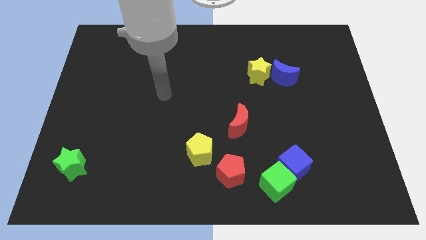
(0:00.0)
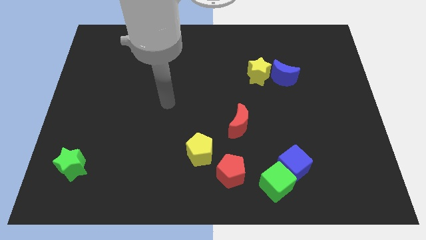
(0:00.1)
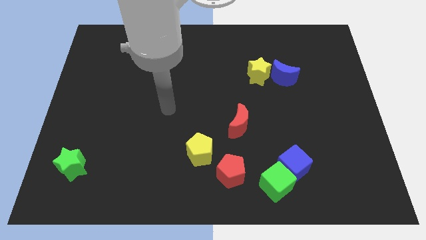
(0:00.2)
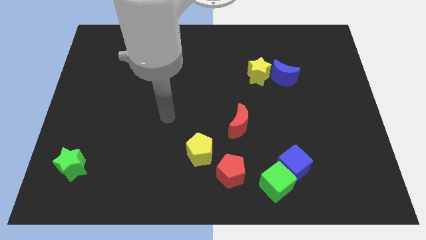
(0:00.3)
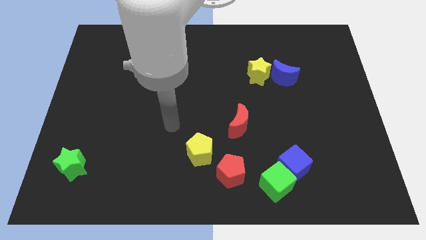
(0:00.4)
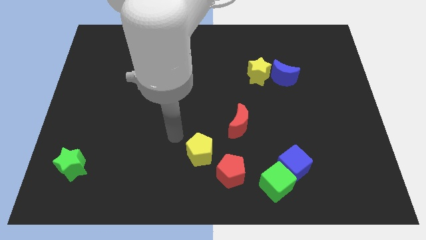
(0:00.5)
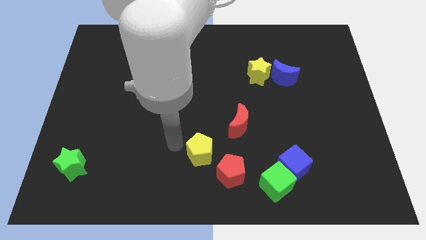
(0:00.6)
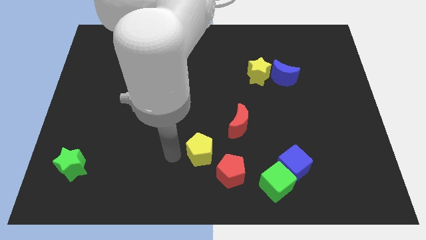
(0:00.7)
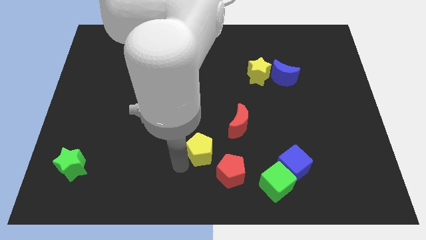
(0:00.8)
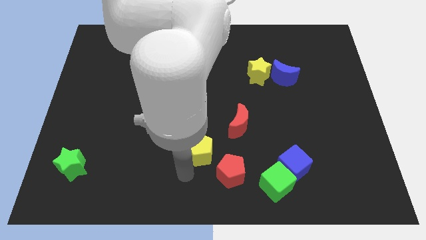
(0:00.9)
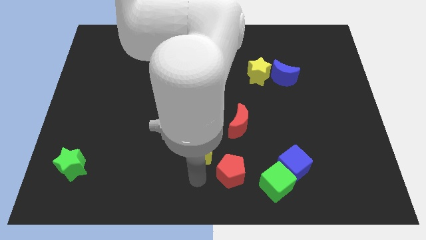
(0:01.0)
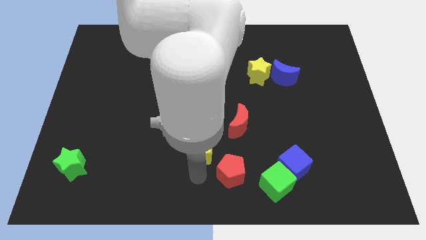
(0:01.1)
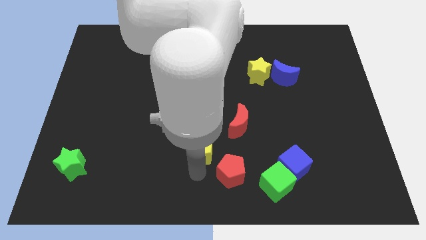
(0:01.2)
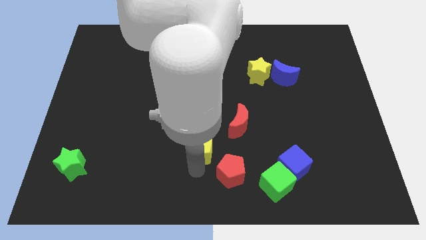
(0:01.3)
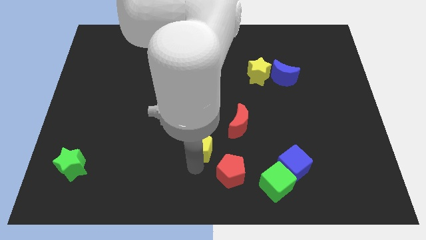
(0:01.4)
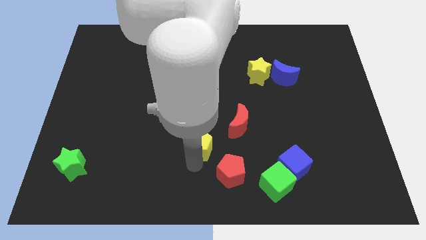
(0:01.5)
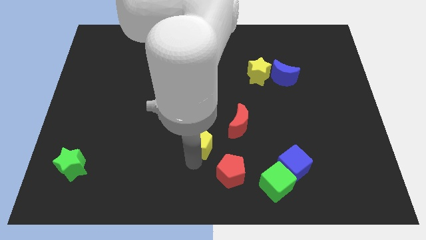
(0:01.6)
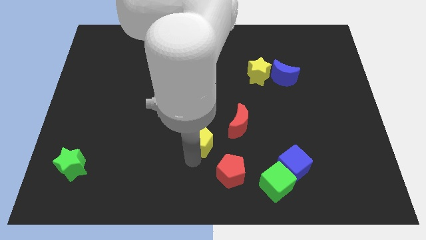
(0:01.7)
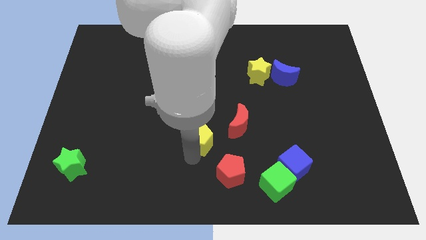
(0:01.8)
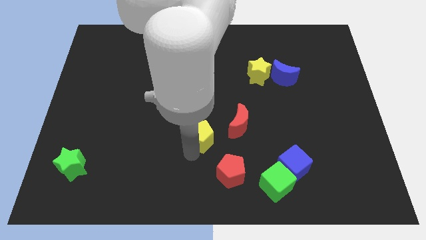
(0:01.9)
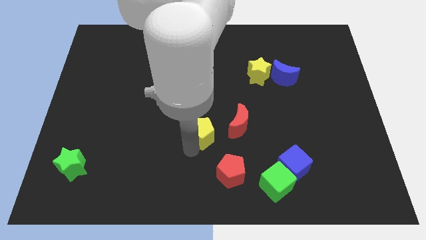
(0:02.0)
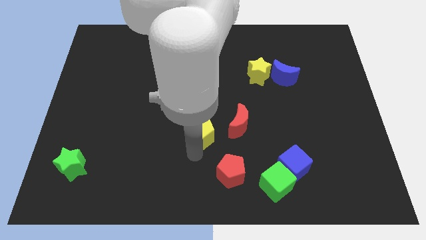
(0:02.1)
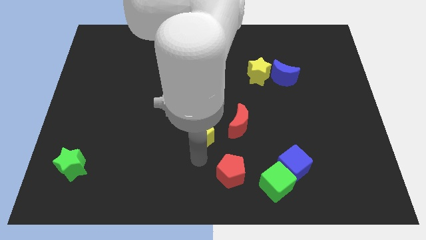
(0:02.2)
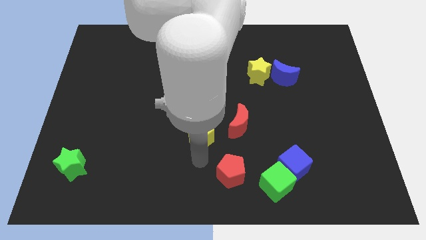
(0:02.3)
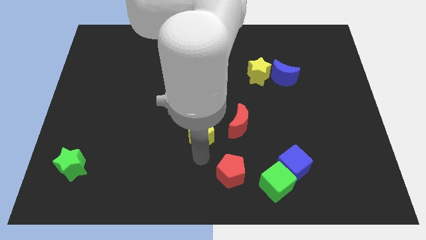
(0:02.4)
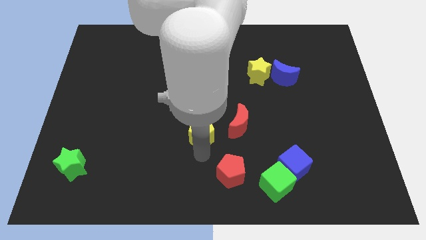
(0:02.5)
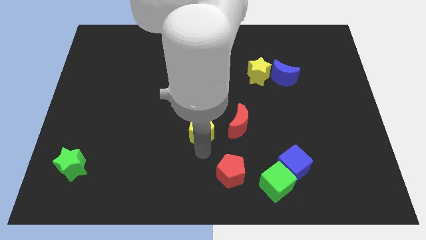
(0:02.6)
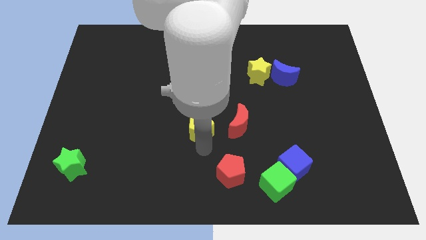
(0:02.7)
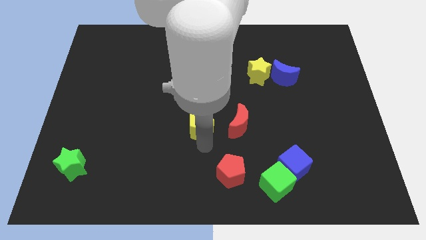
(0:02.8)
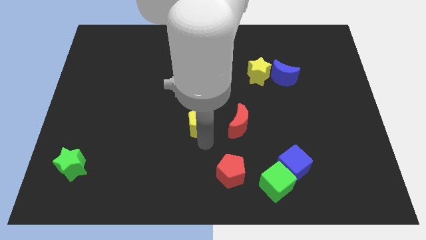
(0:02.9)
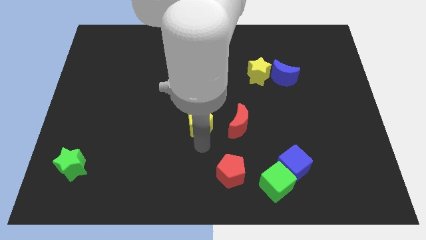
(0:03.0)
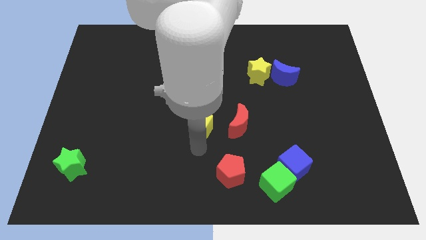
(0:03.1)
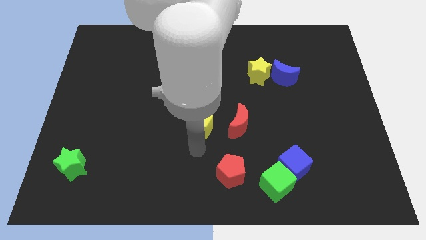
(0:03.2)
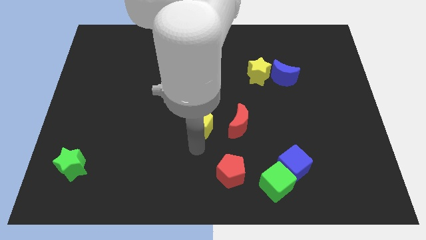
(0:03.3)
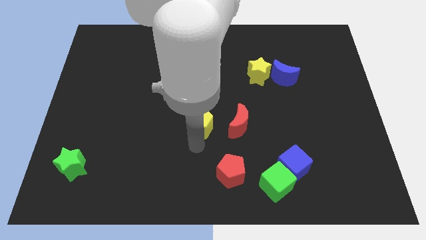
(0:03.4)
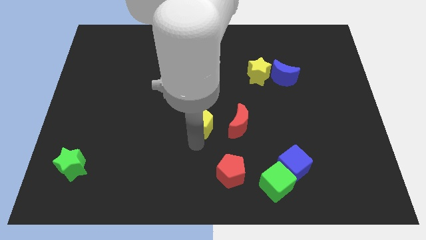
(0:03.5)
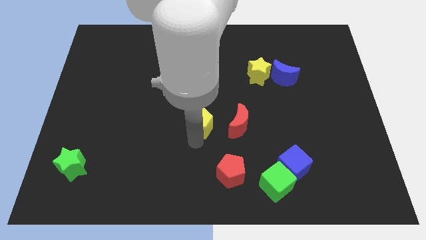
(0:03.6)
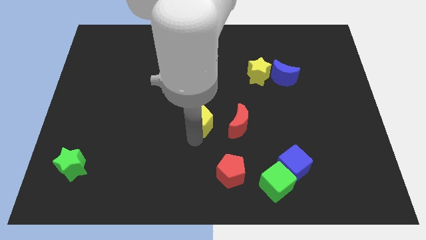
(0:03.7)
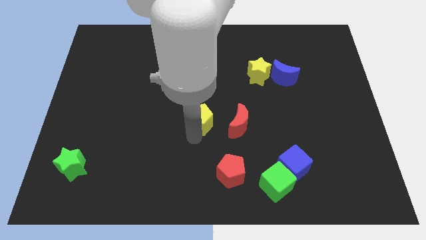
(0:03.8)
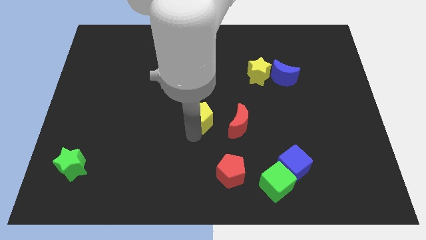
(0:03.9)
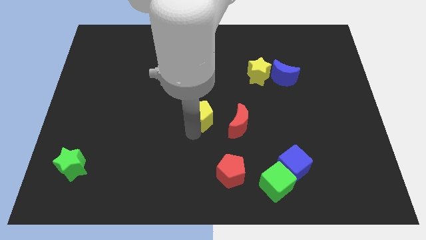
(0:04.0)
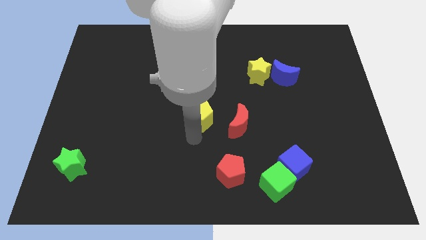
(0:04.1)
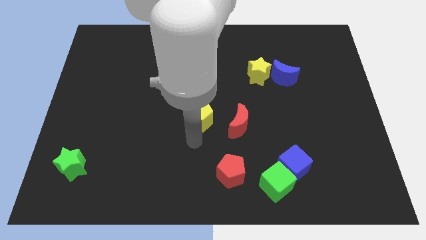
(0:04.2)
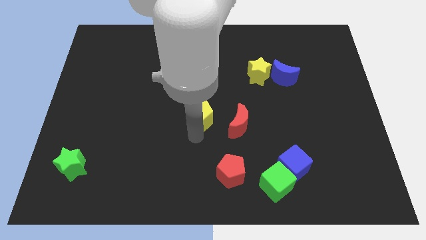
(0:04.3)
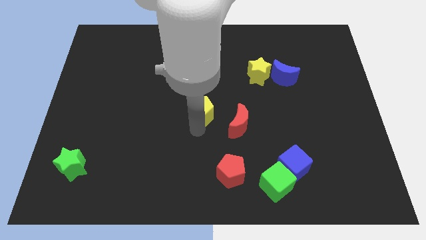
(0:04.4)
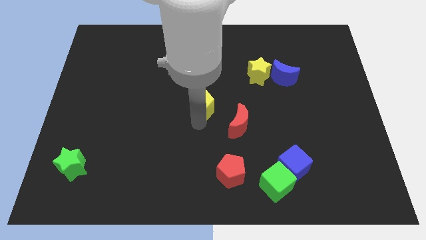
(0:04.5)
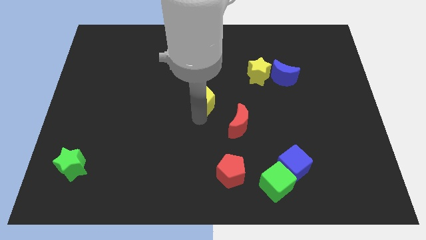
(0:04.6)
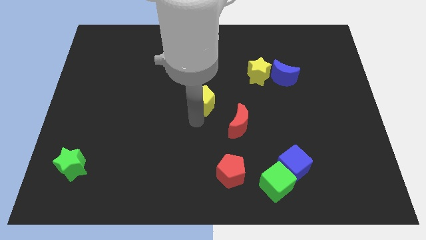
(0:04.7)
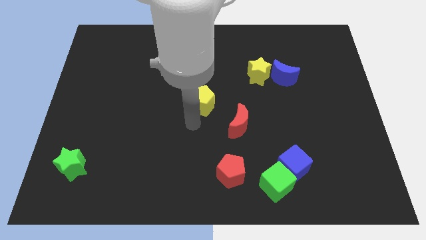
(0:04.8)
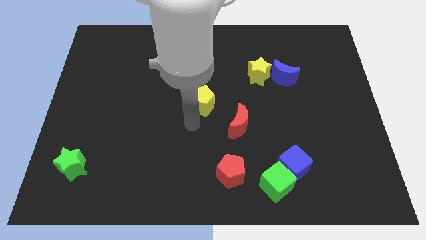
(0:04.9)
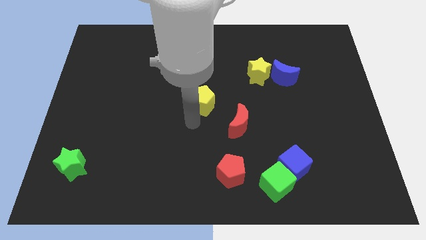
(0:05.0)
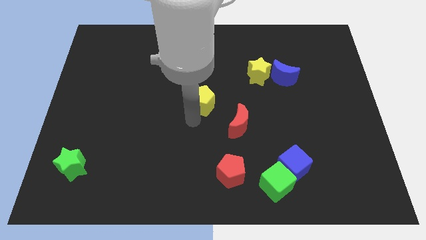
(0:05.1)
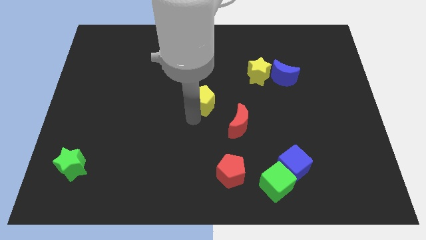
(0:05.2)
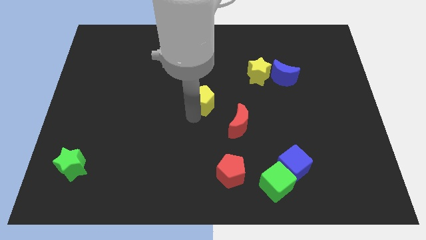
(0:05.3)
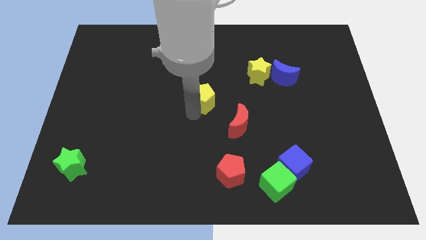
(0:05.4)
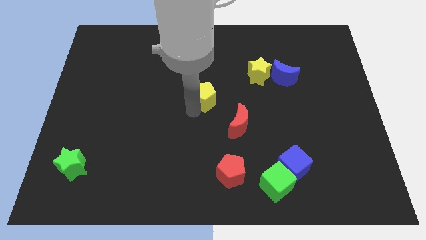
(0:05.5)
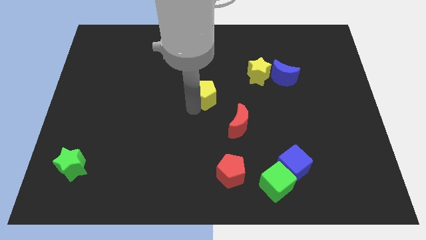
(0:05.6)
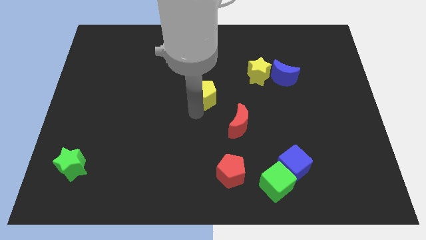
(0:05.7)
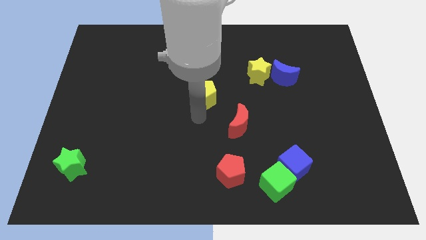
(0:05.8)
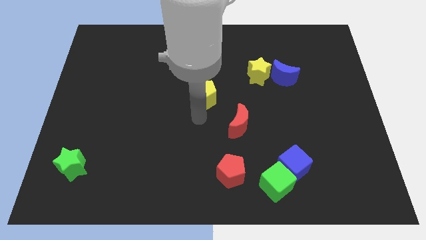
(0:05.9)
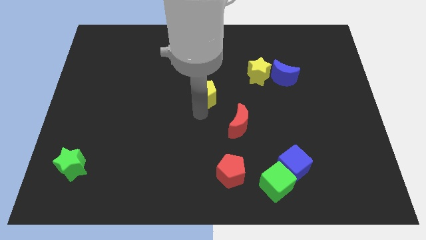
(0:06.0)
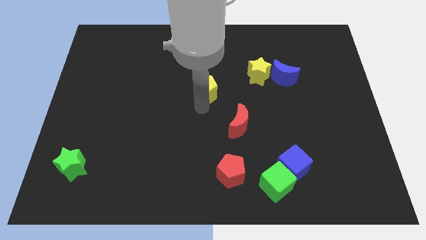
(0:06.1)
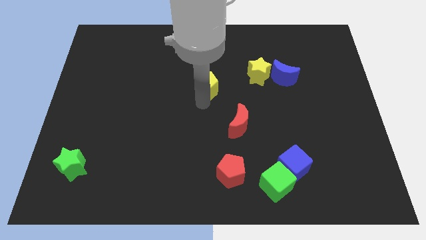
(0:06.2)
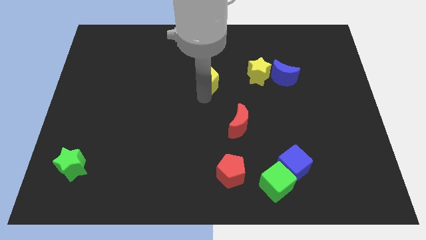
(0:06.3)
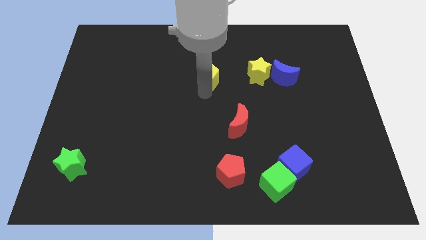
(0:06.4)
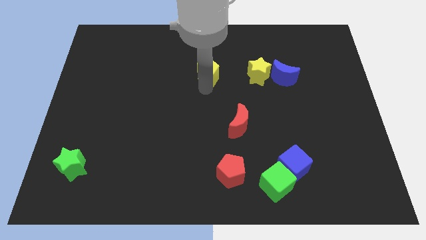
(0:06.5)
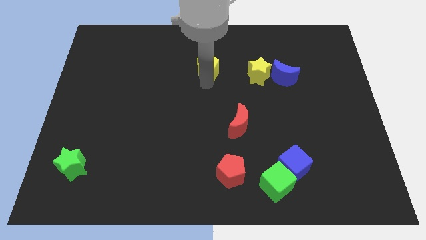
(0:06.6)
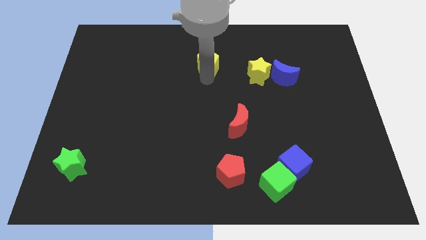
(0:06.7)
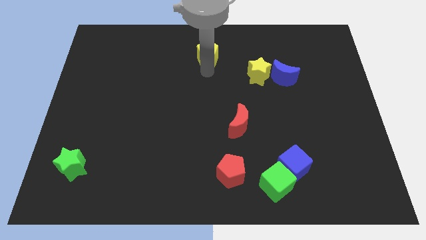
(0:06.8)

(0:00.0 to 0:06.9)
push the yellow pentagon to the towards your base
